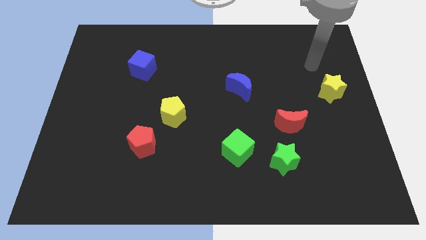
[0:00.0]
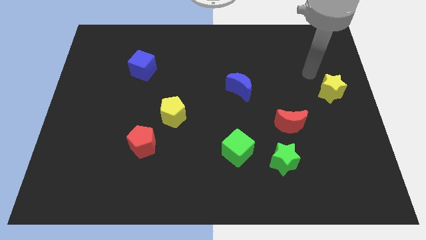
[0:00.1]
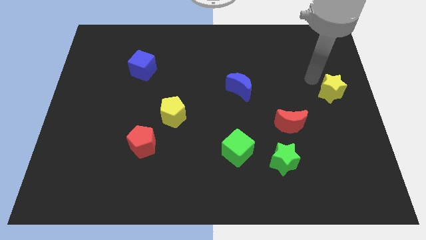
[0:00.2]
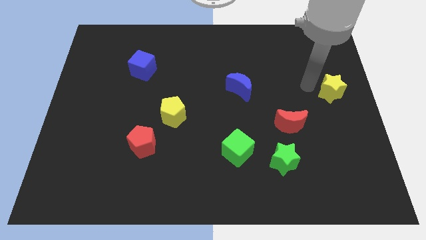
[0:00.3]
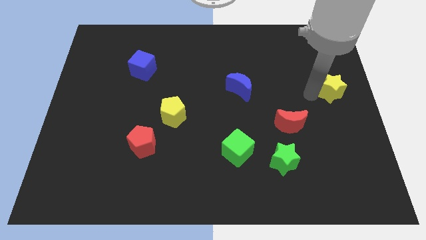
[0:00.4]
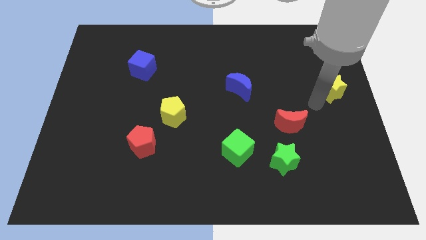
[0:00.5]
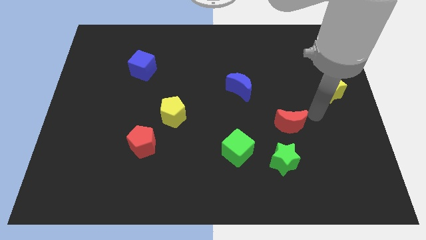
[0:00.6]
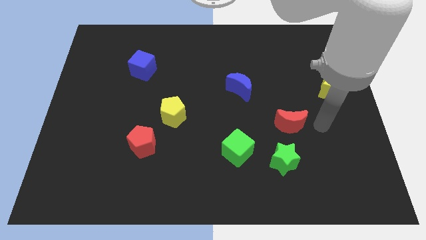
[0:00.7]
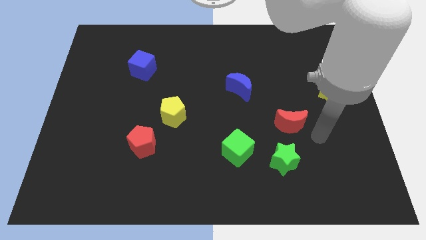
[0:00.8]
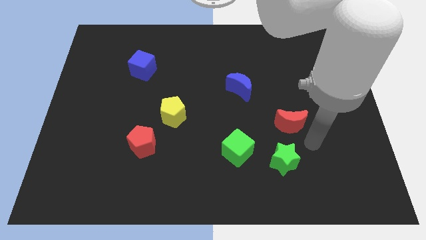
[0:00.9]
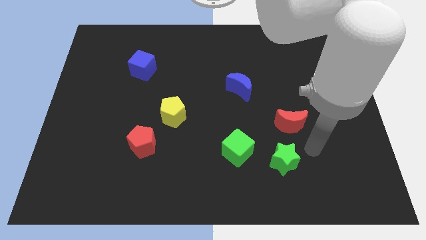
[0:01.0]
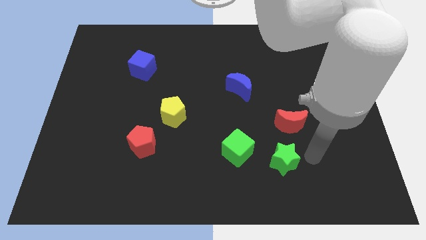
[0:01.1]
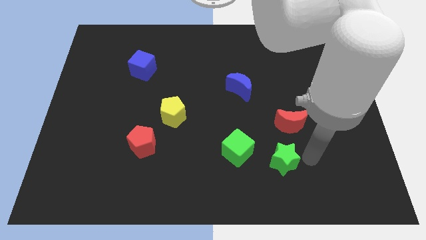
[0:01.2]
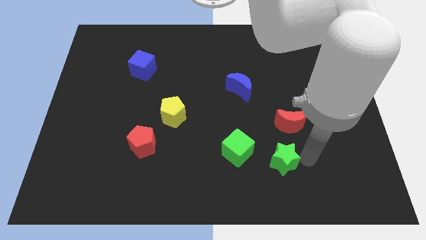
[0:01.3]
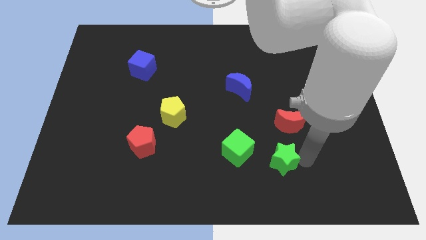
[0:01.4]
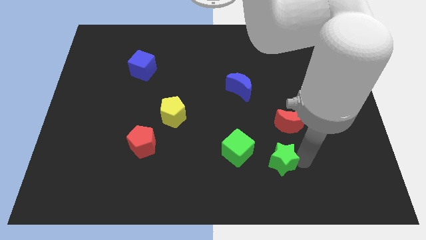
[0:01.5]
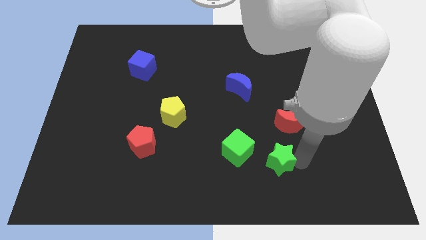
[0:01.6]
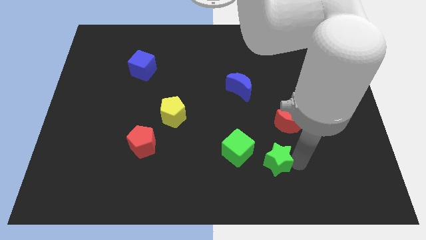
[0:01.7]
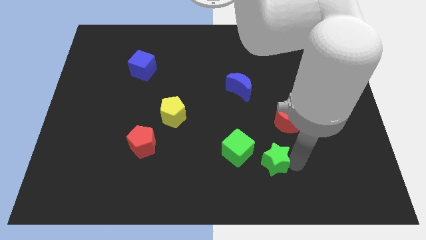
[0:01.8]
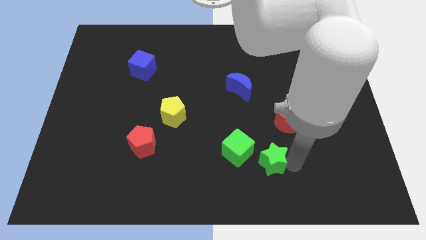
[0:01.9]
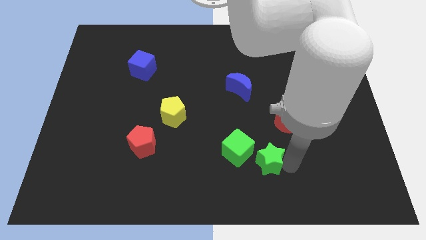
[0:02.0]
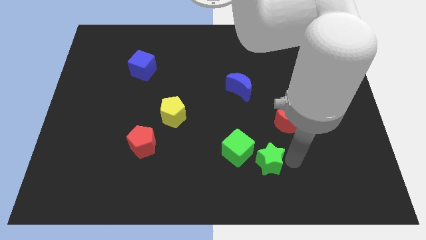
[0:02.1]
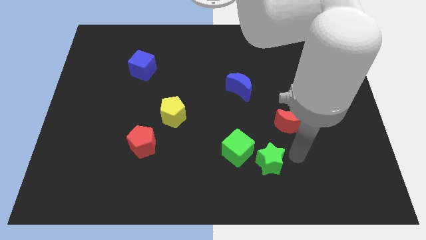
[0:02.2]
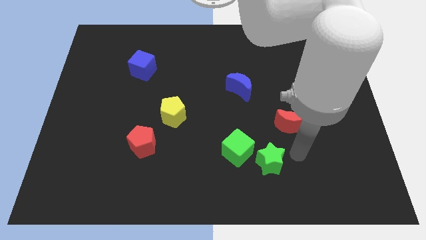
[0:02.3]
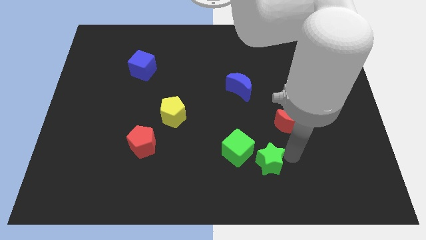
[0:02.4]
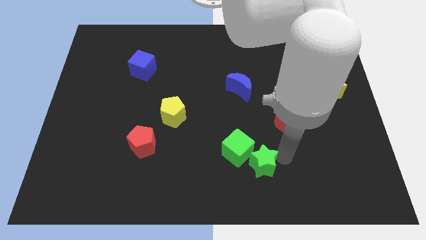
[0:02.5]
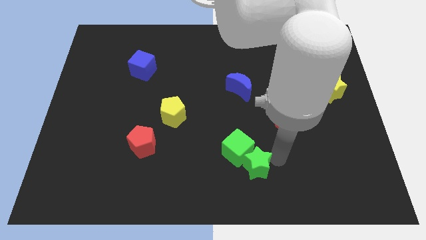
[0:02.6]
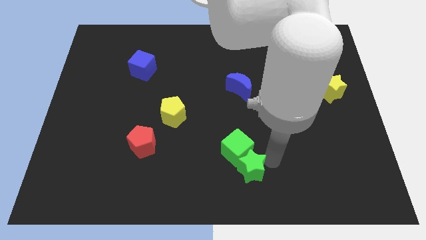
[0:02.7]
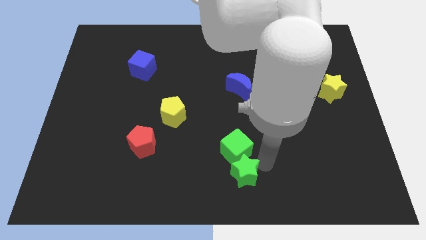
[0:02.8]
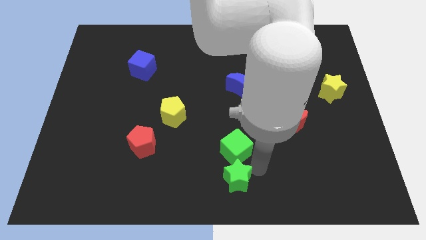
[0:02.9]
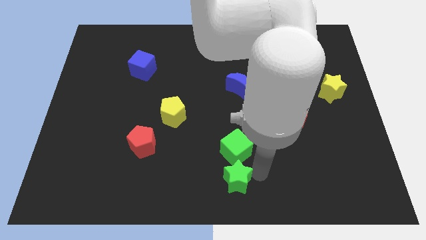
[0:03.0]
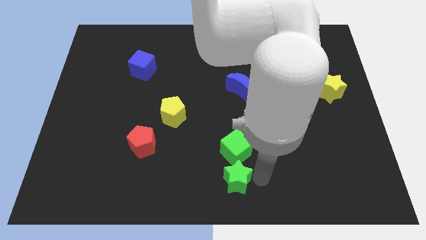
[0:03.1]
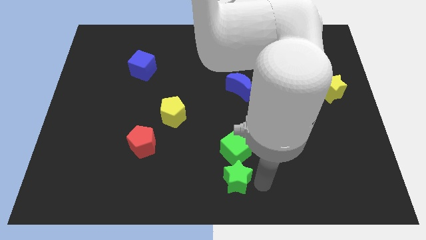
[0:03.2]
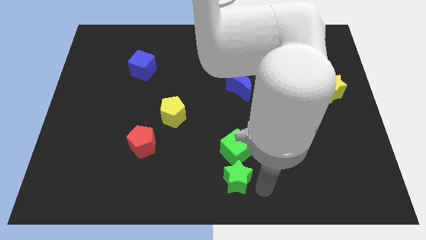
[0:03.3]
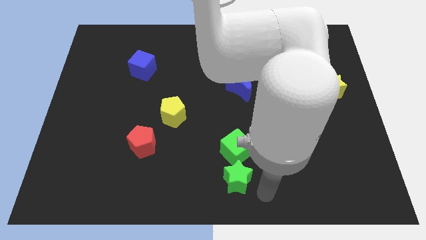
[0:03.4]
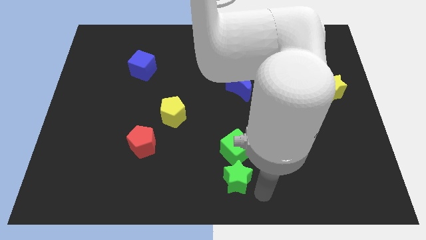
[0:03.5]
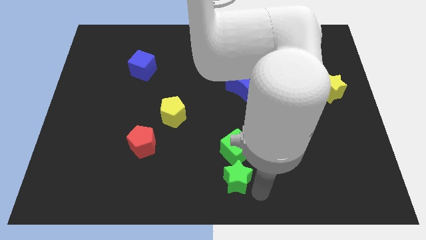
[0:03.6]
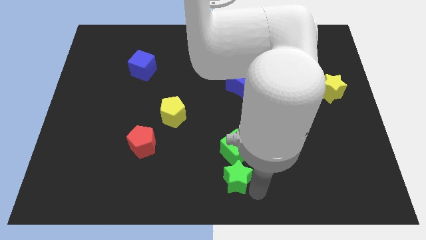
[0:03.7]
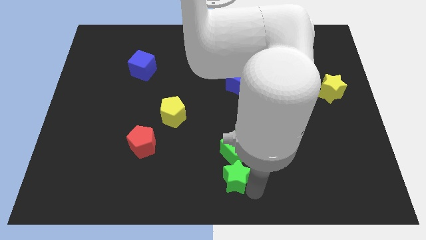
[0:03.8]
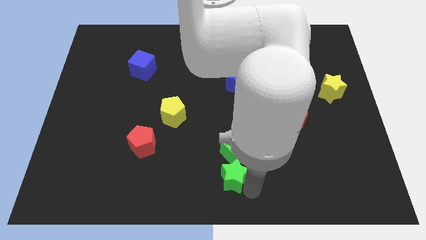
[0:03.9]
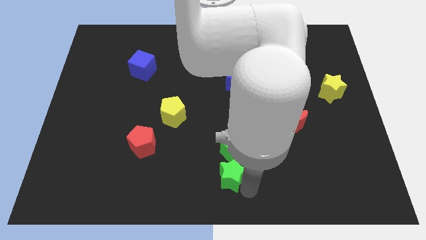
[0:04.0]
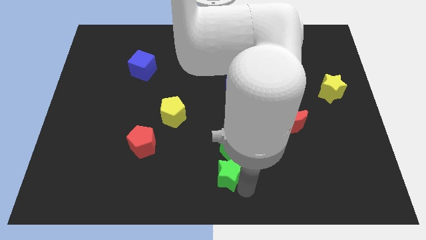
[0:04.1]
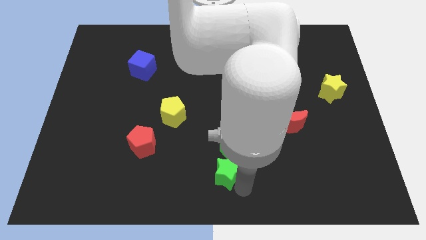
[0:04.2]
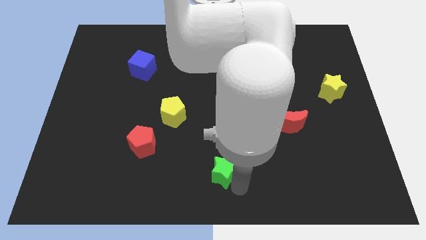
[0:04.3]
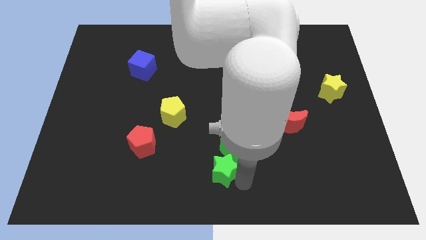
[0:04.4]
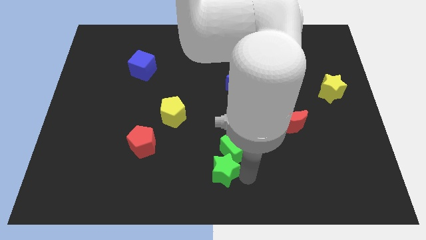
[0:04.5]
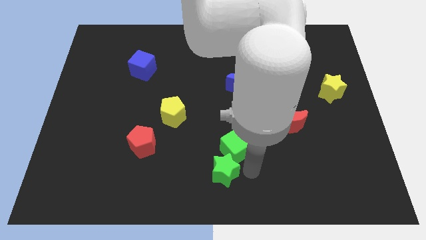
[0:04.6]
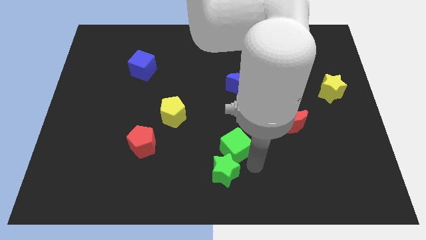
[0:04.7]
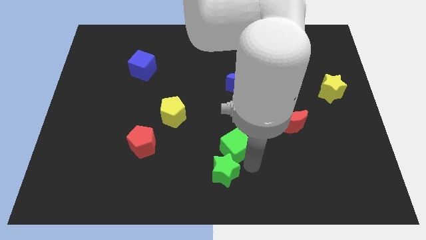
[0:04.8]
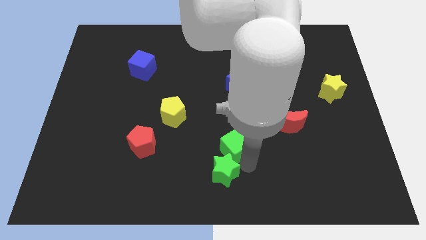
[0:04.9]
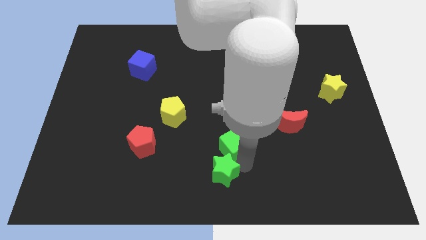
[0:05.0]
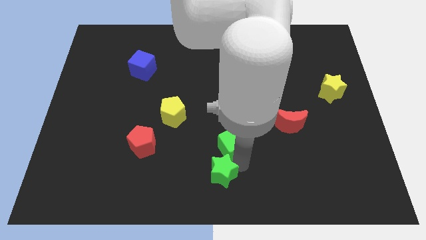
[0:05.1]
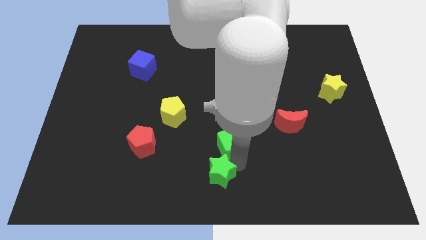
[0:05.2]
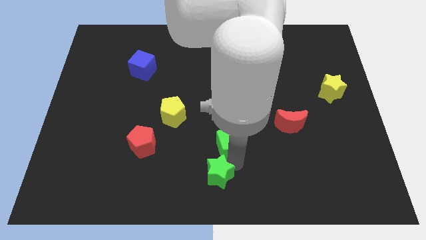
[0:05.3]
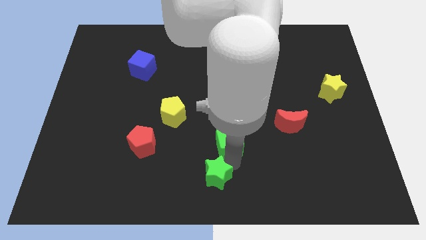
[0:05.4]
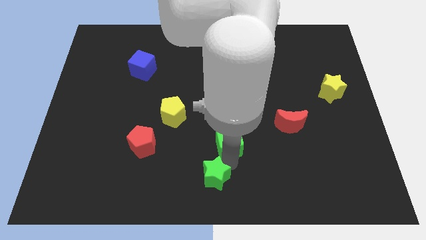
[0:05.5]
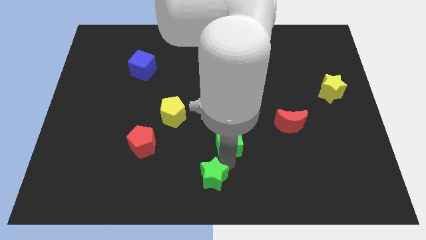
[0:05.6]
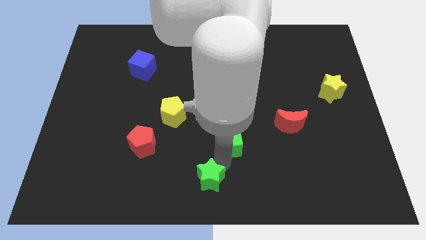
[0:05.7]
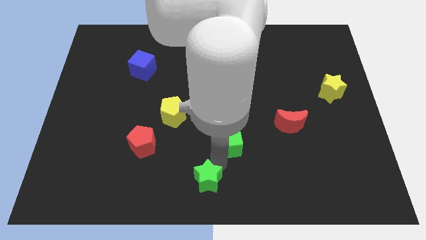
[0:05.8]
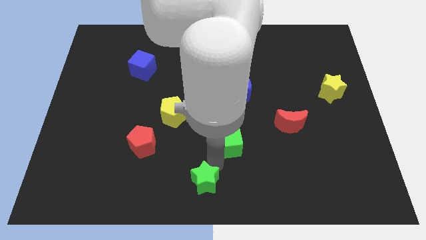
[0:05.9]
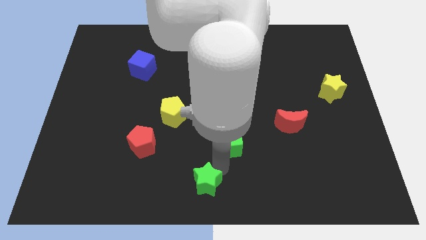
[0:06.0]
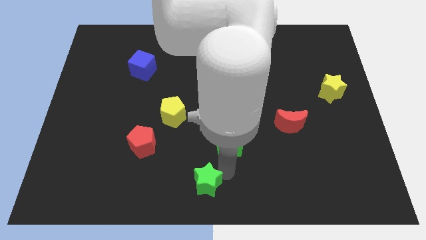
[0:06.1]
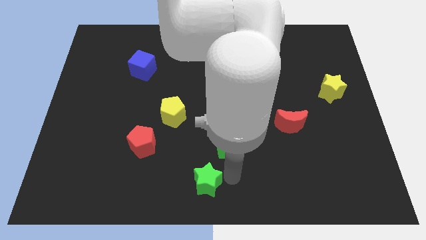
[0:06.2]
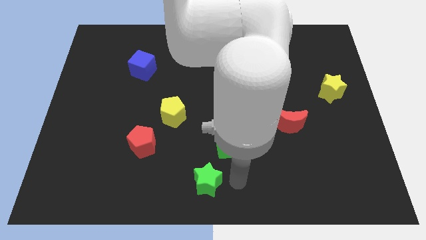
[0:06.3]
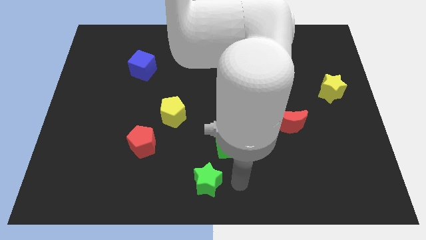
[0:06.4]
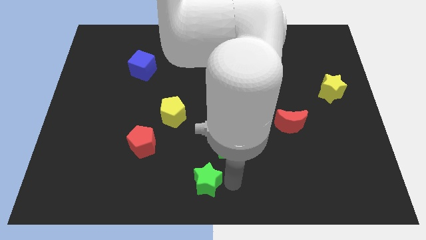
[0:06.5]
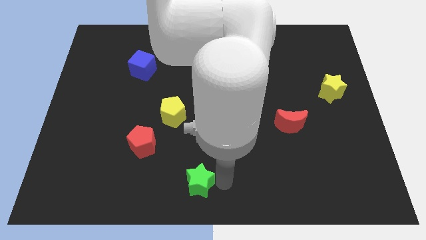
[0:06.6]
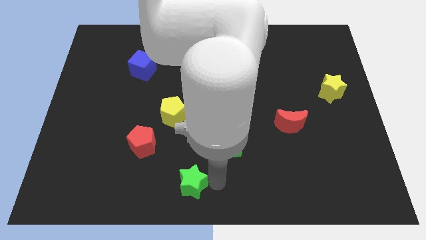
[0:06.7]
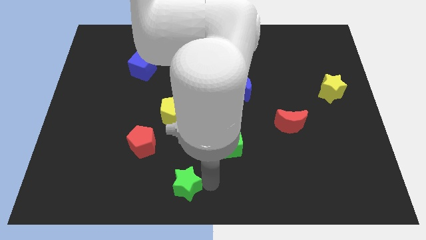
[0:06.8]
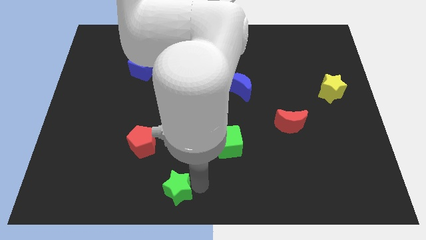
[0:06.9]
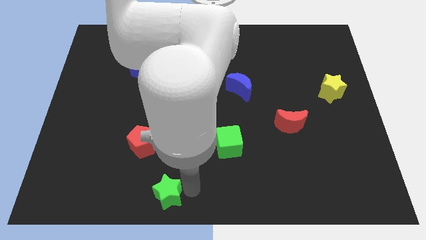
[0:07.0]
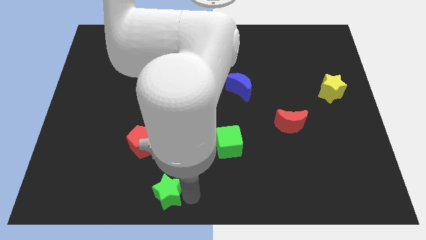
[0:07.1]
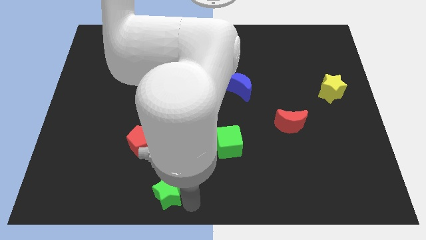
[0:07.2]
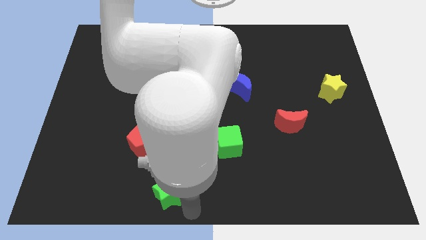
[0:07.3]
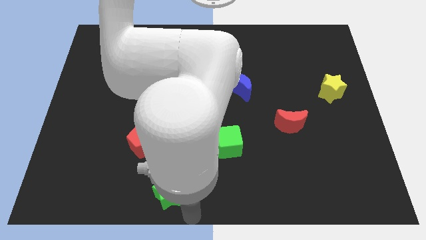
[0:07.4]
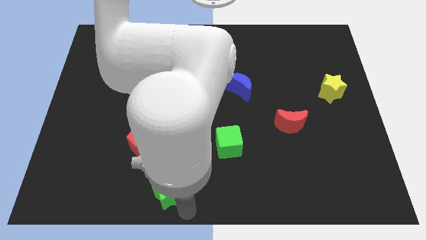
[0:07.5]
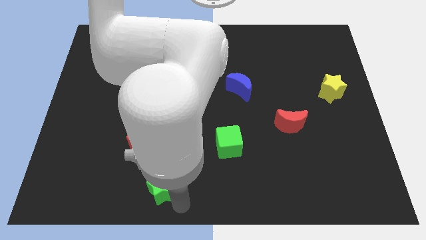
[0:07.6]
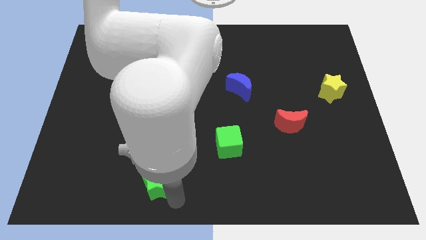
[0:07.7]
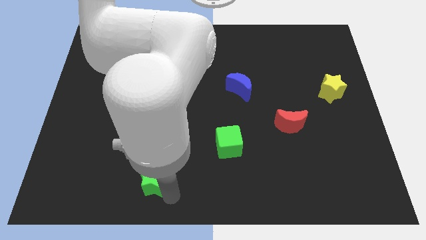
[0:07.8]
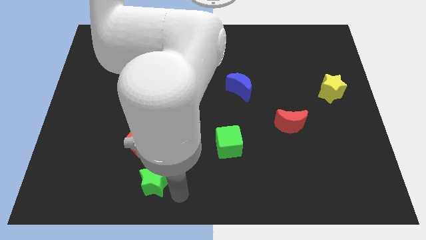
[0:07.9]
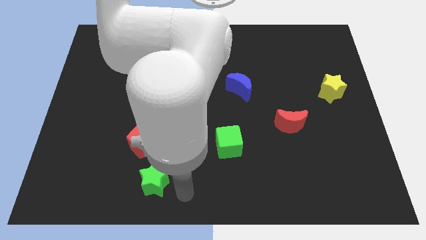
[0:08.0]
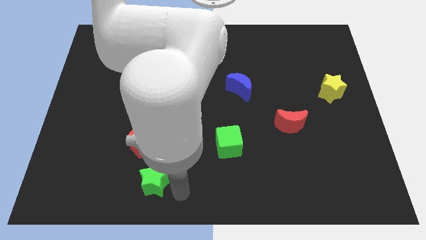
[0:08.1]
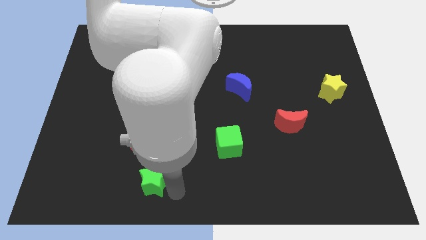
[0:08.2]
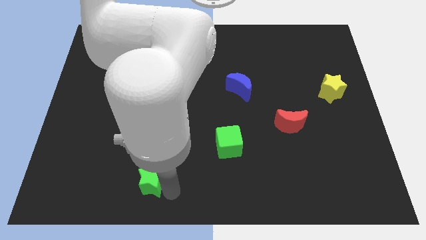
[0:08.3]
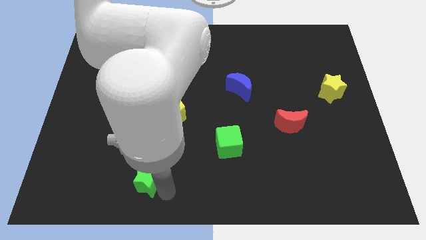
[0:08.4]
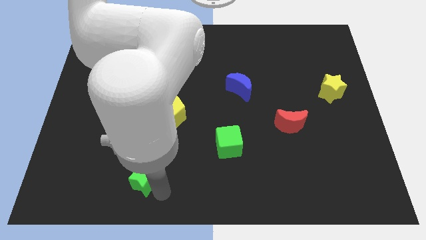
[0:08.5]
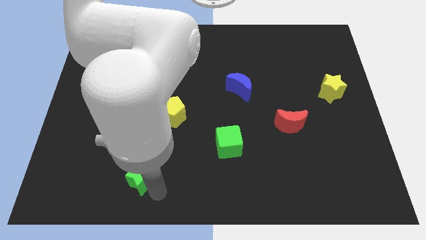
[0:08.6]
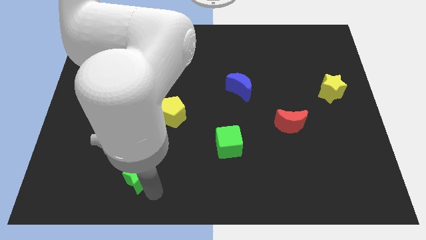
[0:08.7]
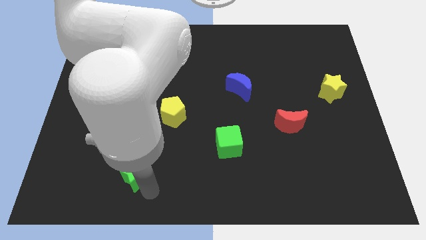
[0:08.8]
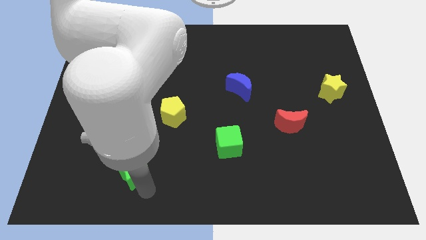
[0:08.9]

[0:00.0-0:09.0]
push the green star to the bottom left side of the red pentagon
